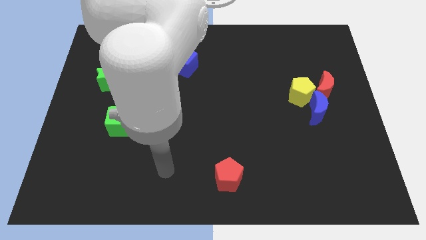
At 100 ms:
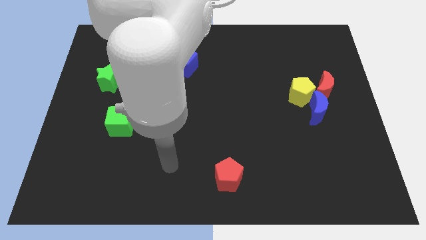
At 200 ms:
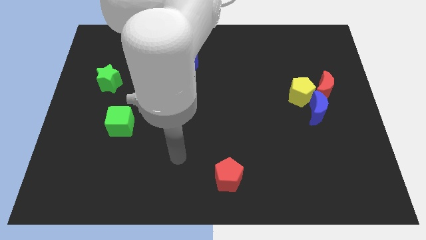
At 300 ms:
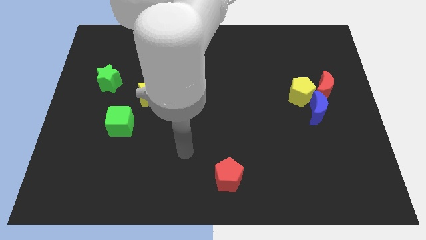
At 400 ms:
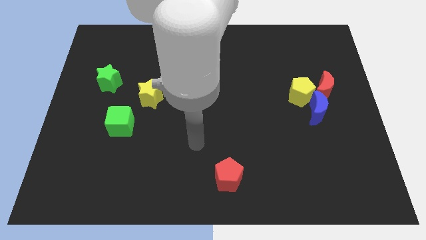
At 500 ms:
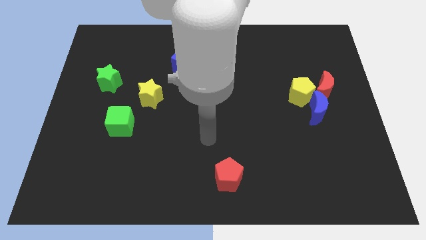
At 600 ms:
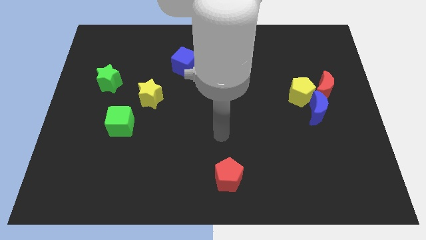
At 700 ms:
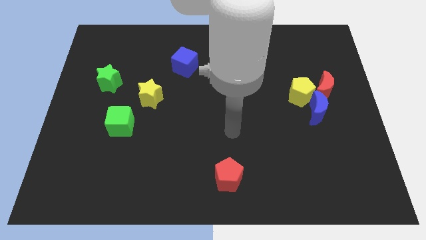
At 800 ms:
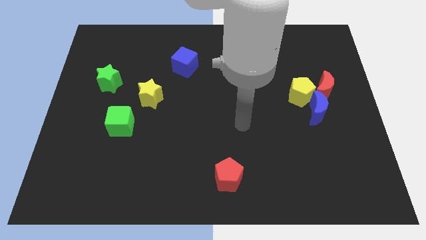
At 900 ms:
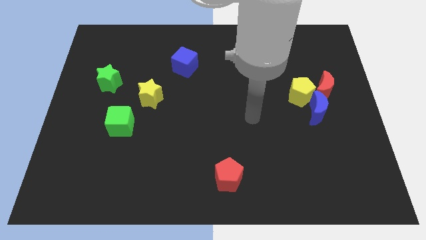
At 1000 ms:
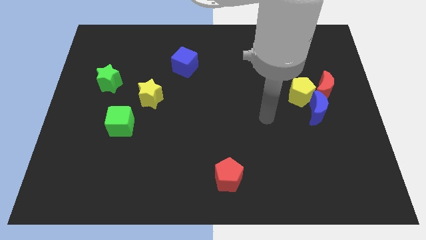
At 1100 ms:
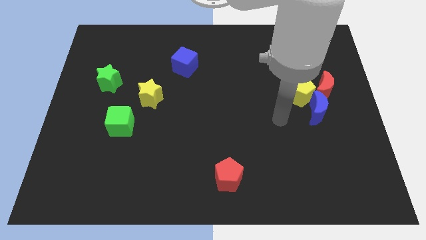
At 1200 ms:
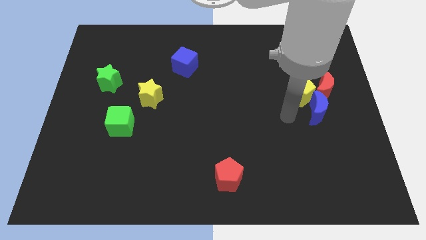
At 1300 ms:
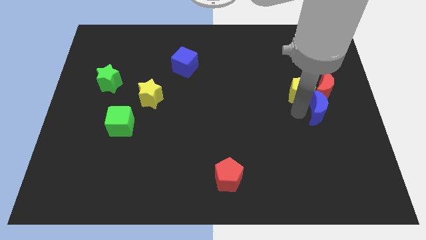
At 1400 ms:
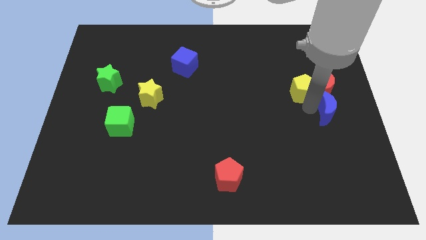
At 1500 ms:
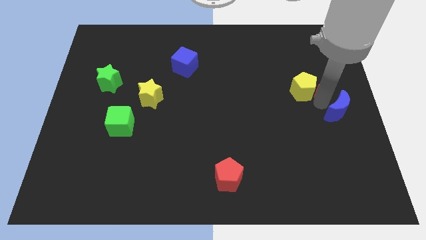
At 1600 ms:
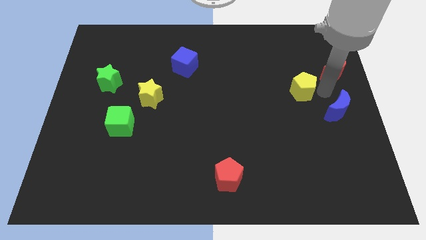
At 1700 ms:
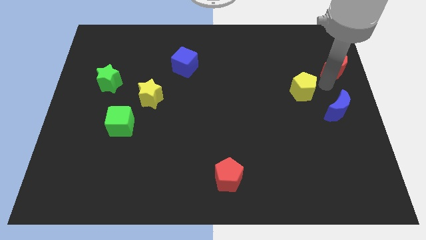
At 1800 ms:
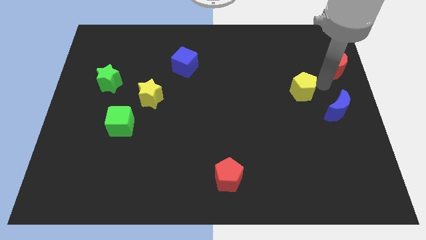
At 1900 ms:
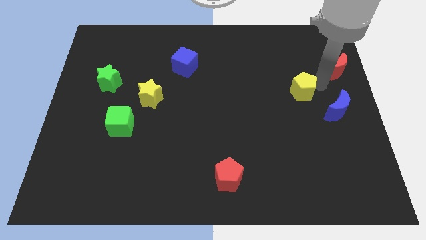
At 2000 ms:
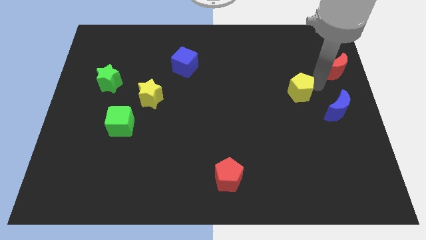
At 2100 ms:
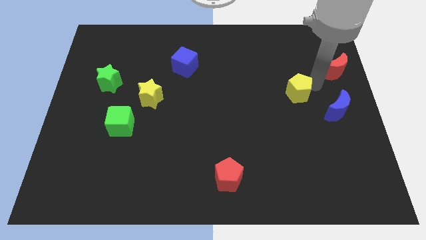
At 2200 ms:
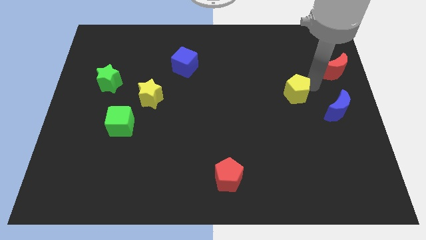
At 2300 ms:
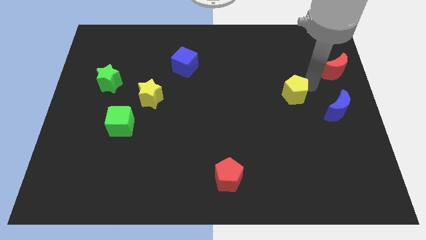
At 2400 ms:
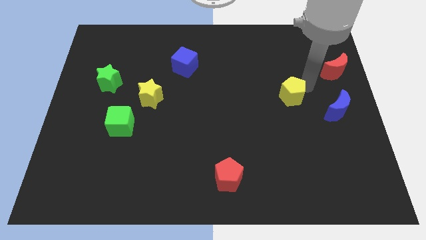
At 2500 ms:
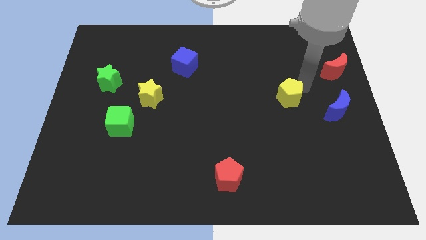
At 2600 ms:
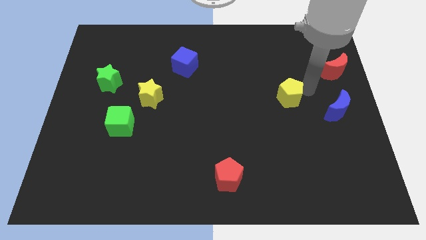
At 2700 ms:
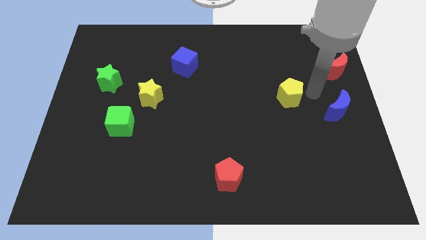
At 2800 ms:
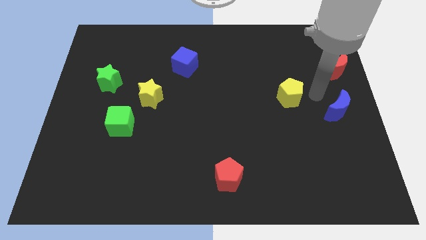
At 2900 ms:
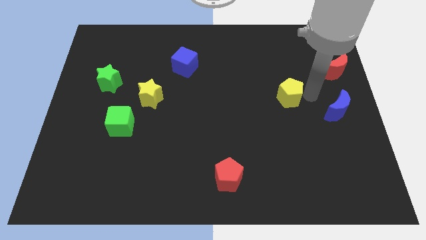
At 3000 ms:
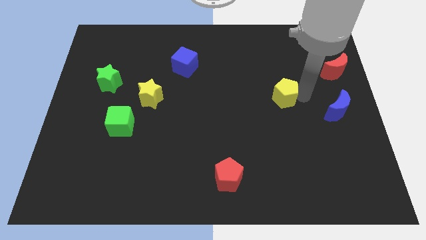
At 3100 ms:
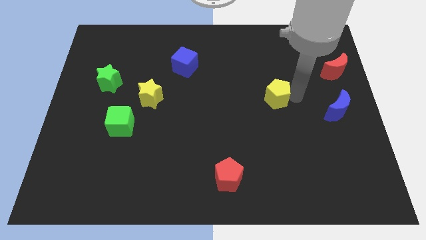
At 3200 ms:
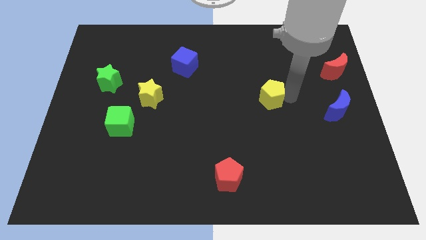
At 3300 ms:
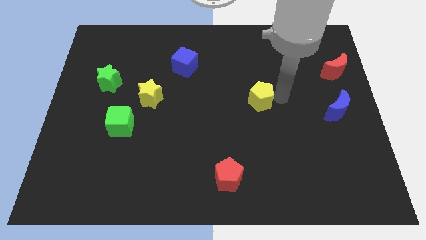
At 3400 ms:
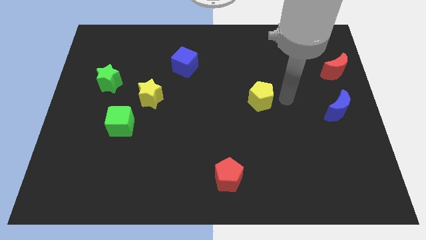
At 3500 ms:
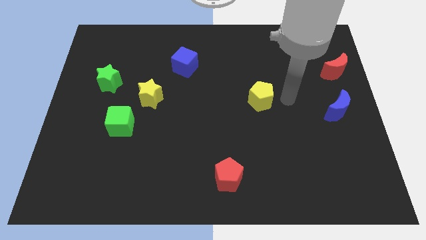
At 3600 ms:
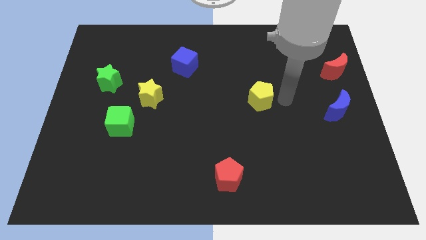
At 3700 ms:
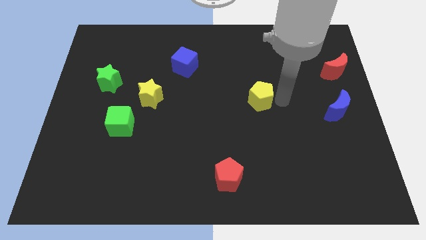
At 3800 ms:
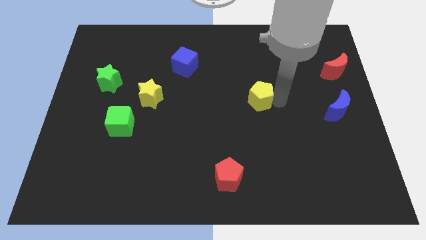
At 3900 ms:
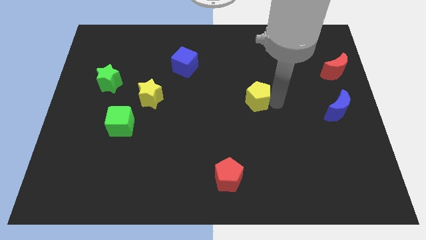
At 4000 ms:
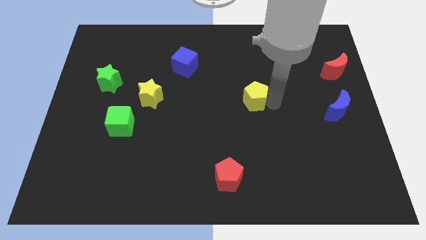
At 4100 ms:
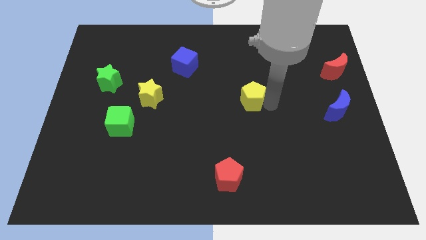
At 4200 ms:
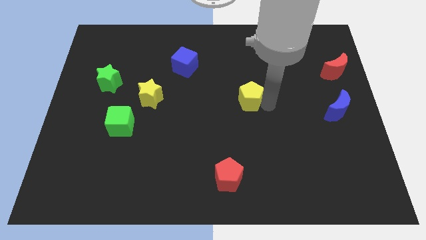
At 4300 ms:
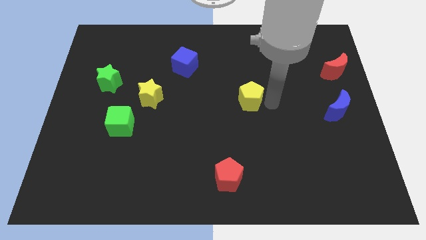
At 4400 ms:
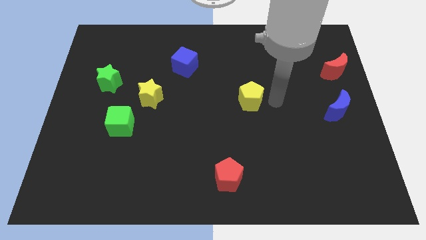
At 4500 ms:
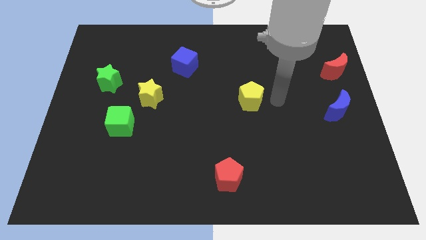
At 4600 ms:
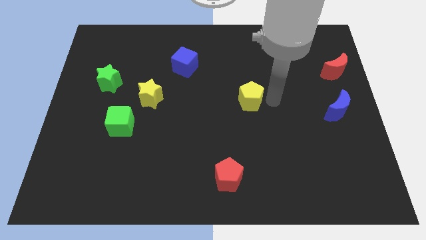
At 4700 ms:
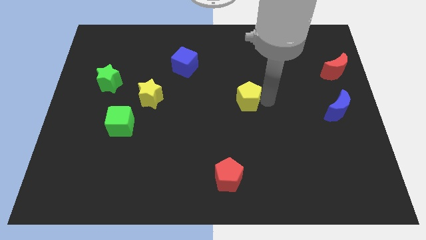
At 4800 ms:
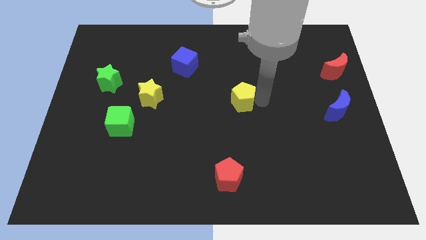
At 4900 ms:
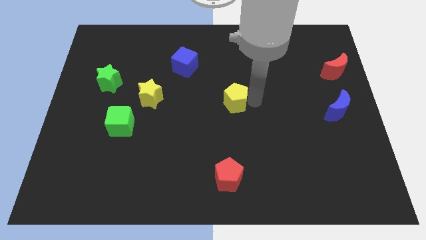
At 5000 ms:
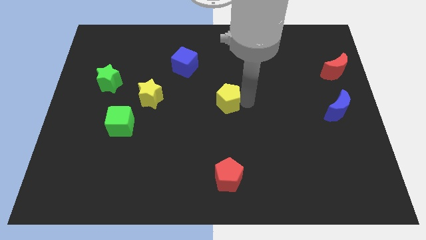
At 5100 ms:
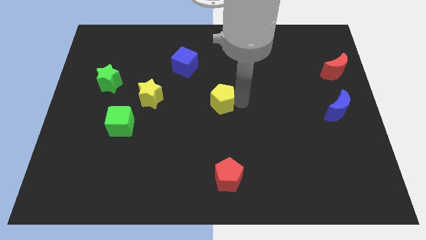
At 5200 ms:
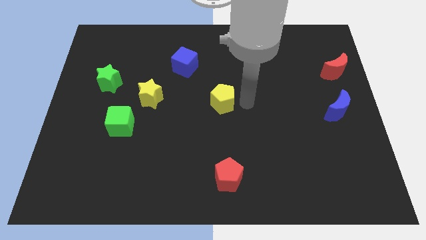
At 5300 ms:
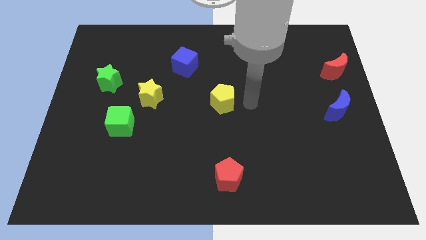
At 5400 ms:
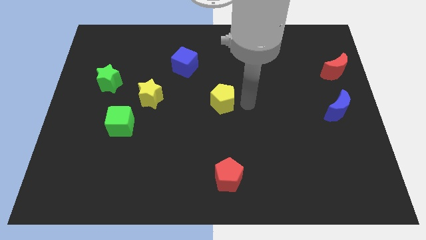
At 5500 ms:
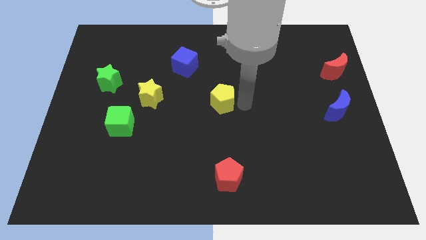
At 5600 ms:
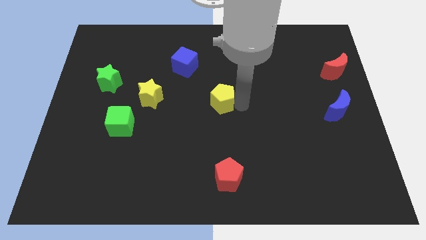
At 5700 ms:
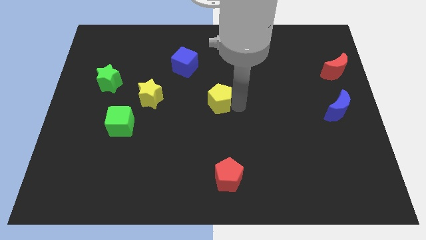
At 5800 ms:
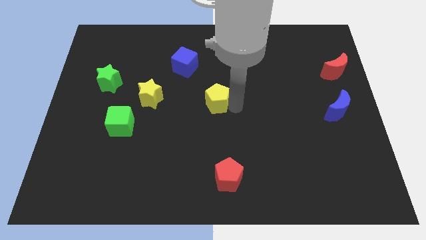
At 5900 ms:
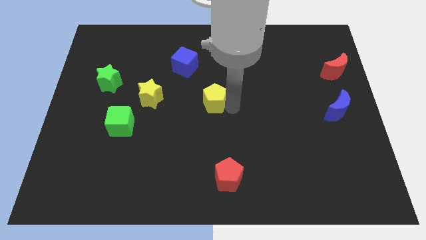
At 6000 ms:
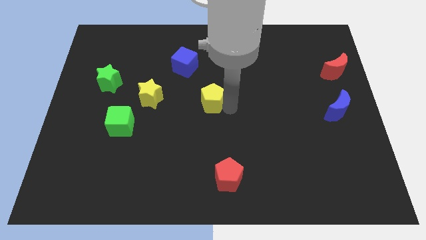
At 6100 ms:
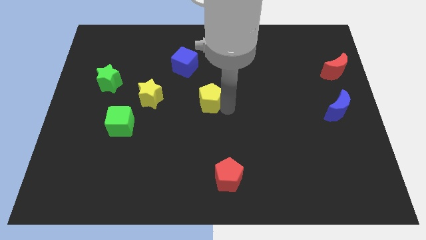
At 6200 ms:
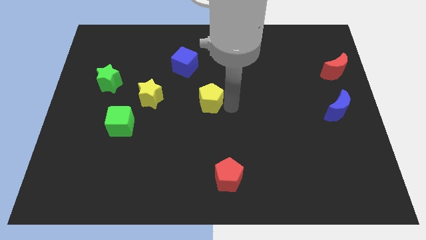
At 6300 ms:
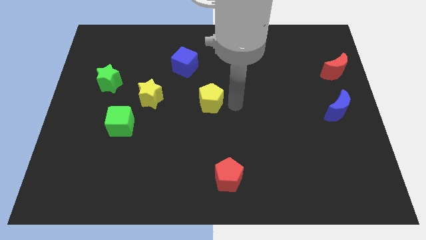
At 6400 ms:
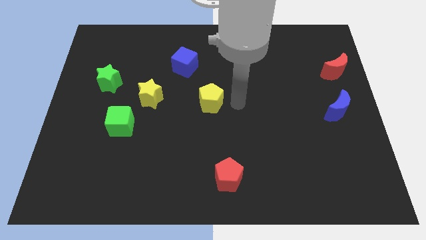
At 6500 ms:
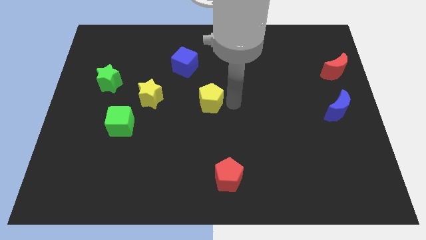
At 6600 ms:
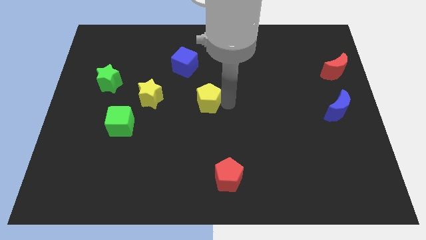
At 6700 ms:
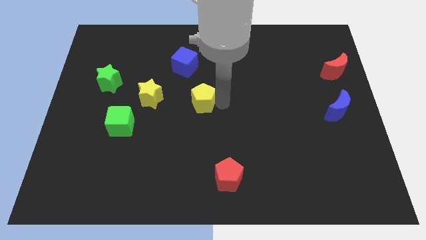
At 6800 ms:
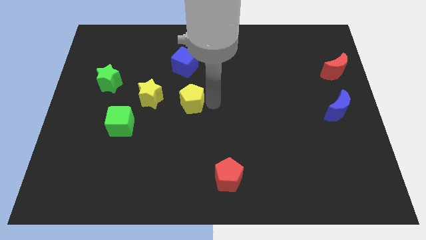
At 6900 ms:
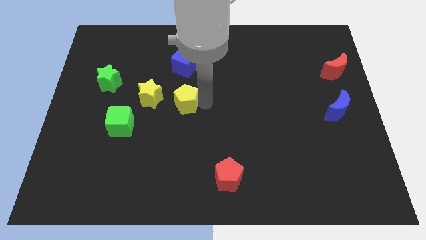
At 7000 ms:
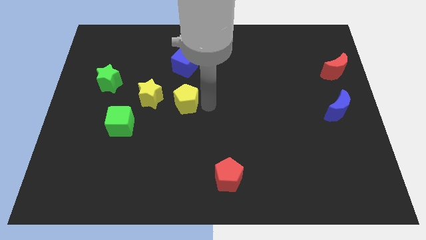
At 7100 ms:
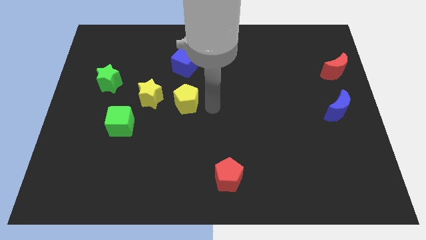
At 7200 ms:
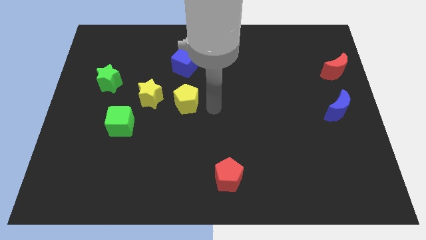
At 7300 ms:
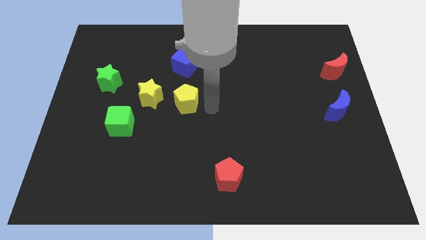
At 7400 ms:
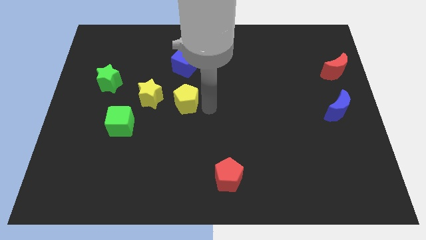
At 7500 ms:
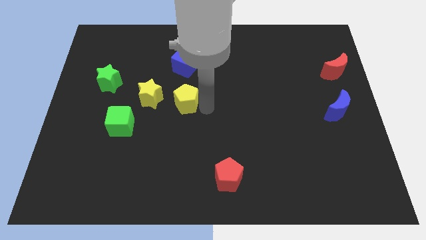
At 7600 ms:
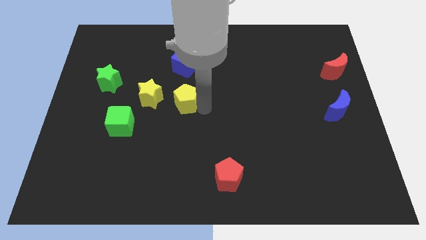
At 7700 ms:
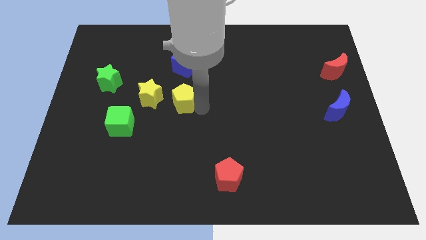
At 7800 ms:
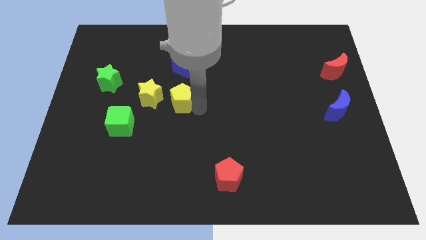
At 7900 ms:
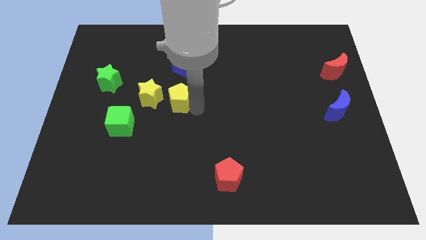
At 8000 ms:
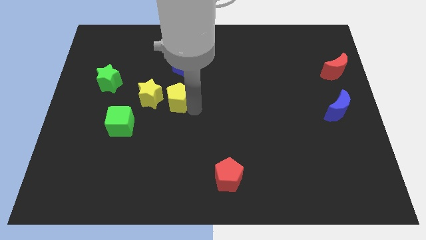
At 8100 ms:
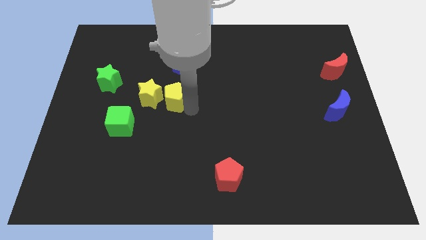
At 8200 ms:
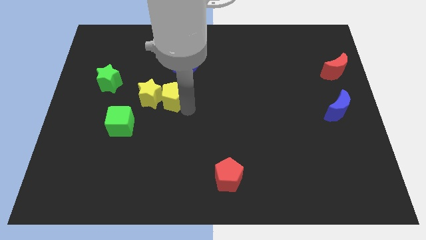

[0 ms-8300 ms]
move the yellow pentagon to the yellow star

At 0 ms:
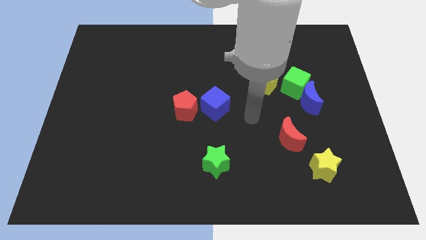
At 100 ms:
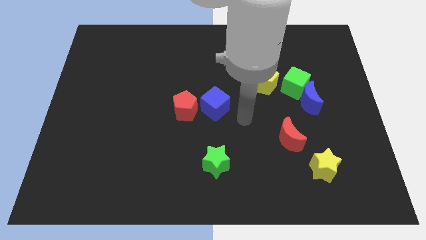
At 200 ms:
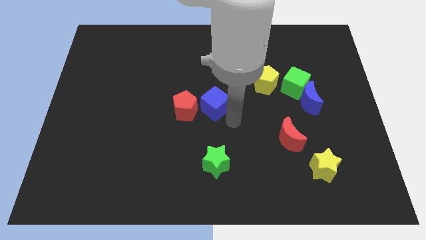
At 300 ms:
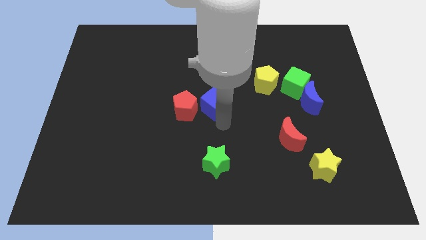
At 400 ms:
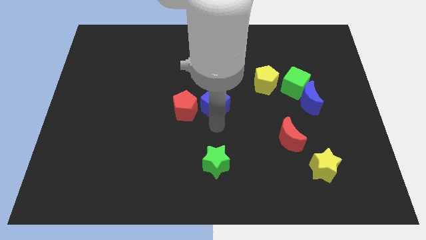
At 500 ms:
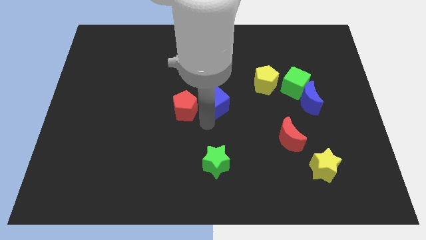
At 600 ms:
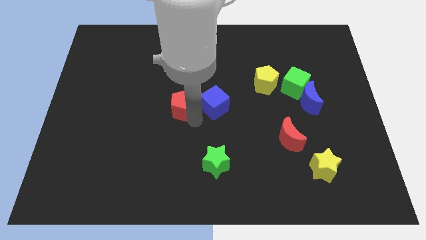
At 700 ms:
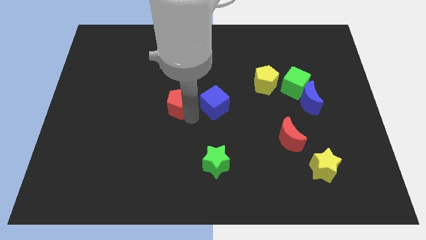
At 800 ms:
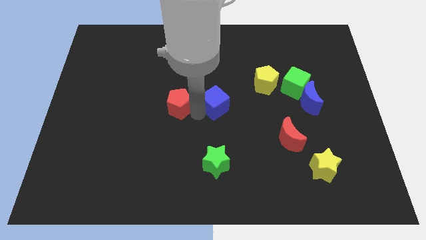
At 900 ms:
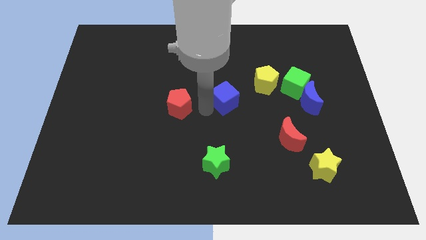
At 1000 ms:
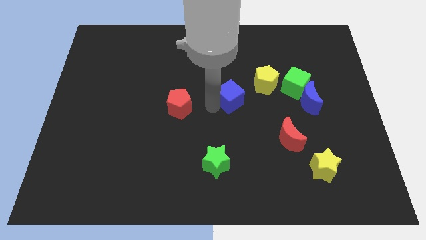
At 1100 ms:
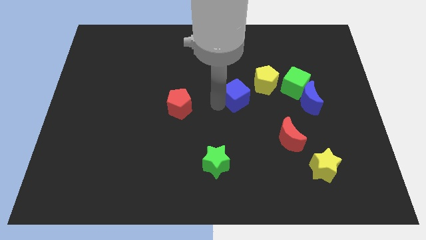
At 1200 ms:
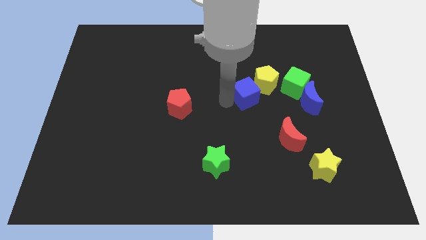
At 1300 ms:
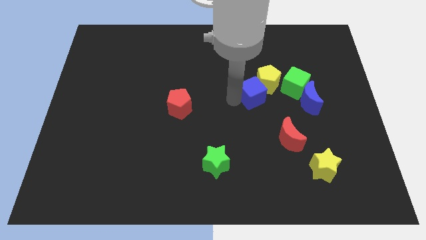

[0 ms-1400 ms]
push the blue cube to the yellow pentagon
